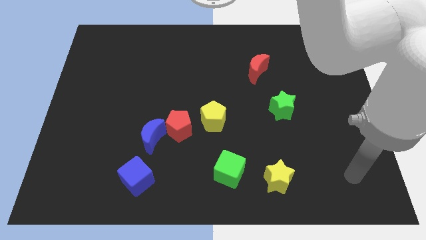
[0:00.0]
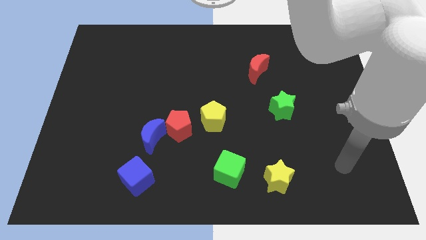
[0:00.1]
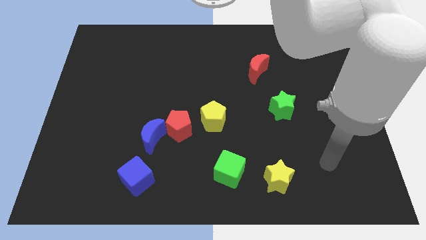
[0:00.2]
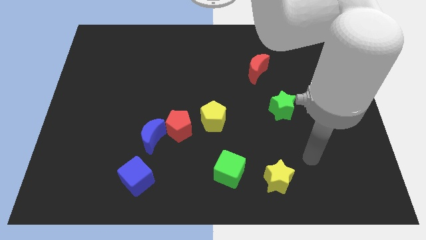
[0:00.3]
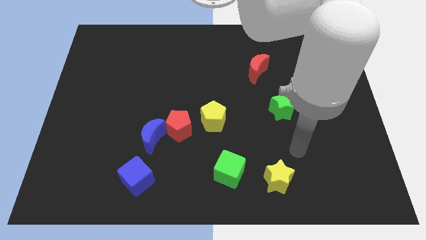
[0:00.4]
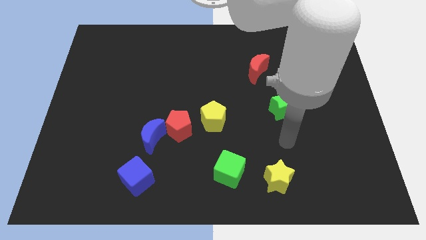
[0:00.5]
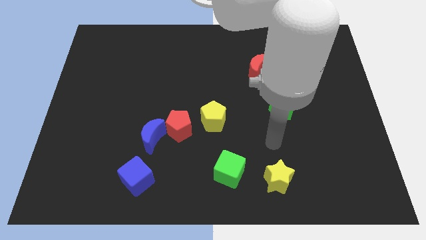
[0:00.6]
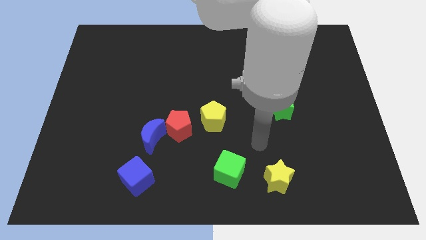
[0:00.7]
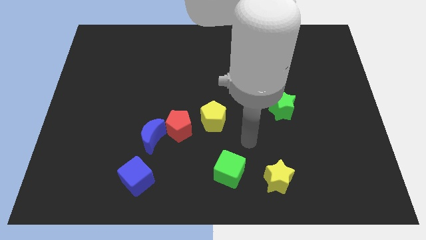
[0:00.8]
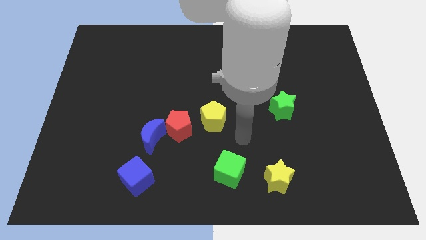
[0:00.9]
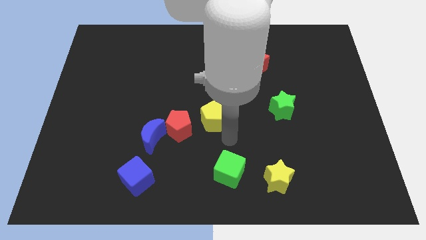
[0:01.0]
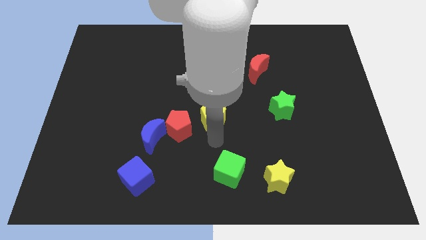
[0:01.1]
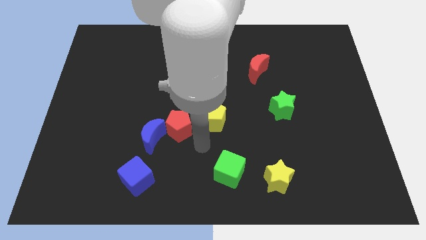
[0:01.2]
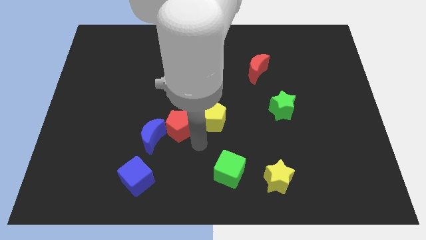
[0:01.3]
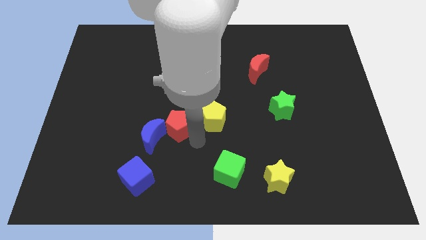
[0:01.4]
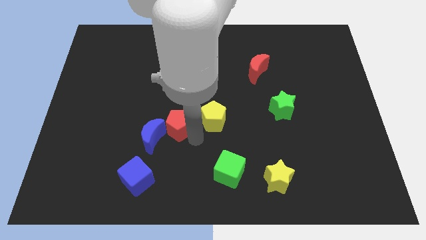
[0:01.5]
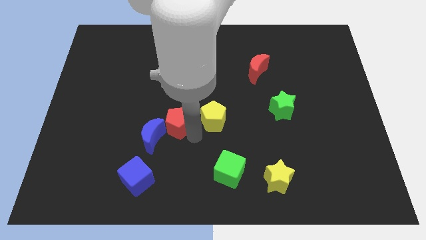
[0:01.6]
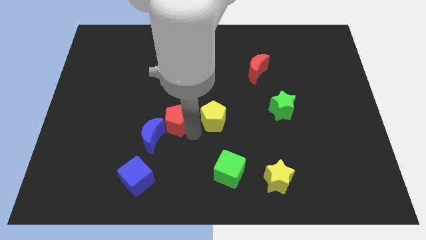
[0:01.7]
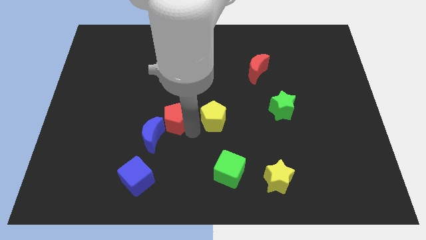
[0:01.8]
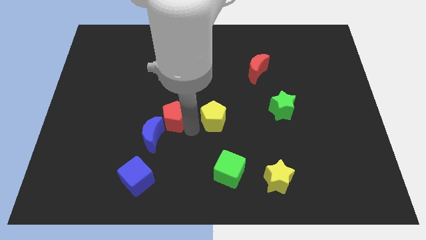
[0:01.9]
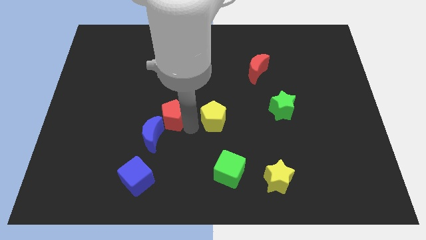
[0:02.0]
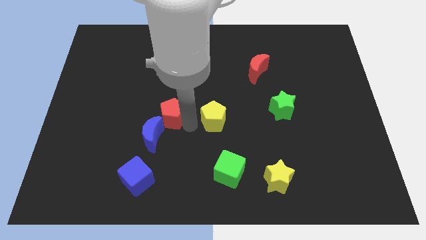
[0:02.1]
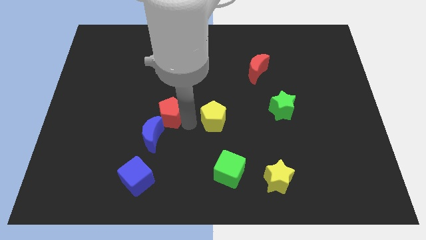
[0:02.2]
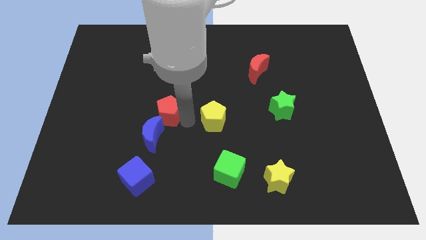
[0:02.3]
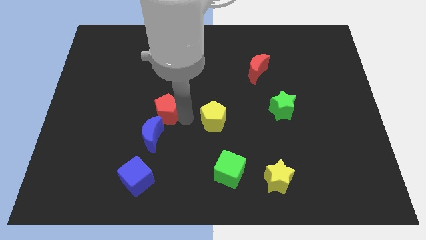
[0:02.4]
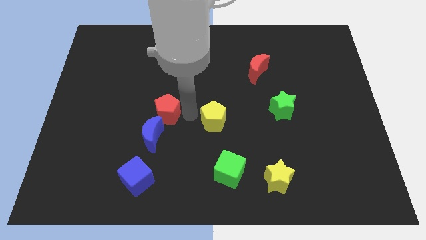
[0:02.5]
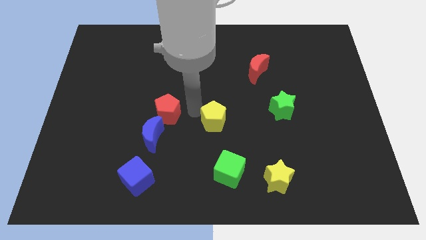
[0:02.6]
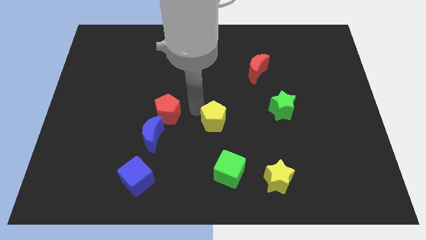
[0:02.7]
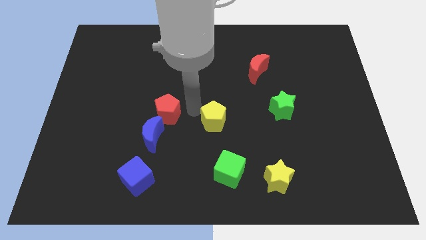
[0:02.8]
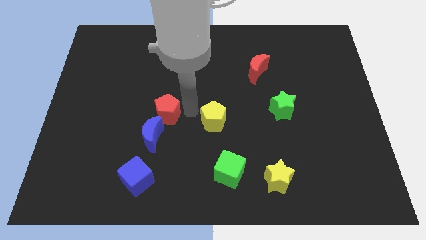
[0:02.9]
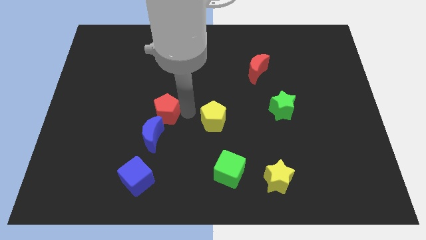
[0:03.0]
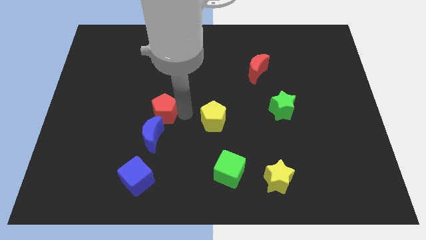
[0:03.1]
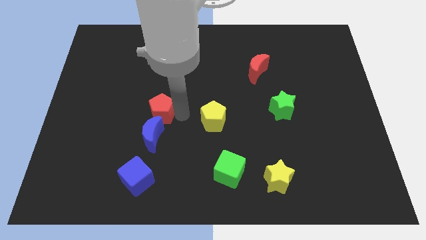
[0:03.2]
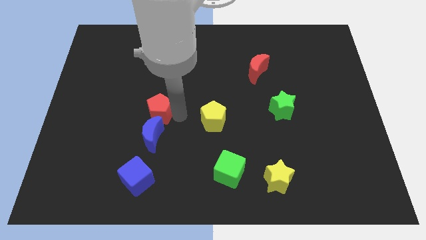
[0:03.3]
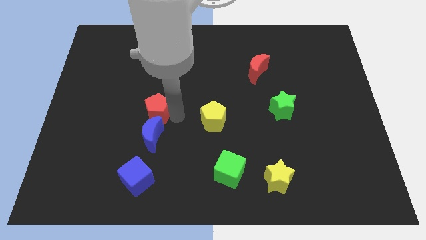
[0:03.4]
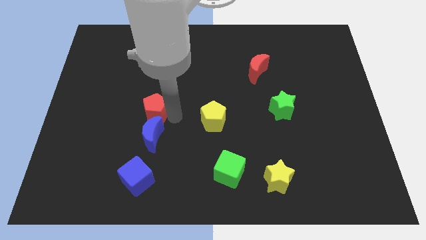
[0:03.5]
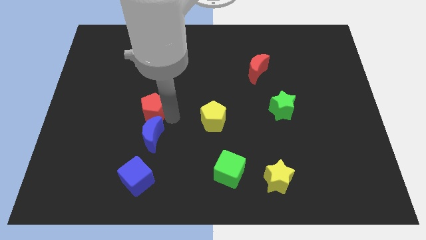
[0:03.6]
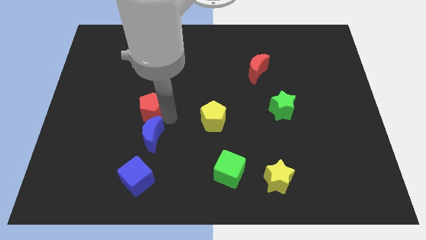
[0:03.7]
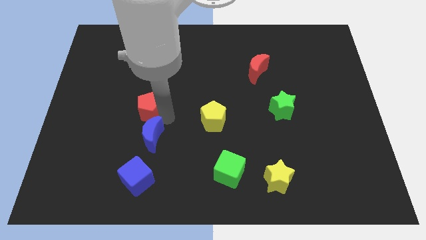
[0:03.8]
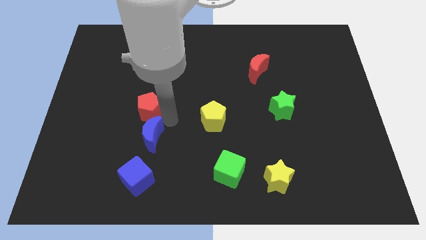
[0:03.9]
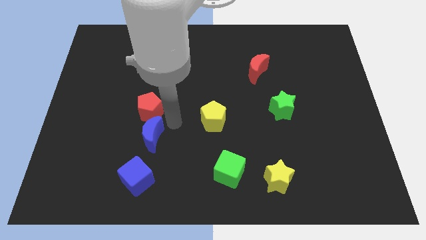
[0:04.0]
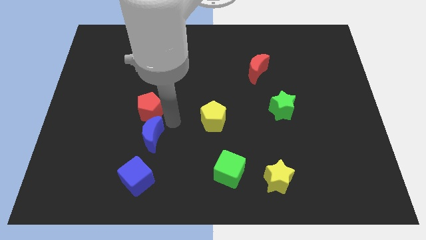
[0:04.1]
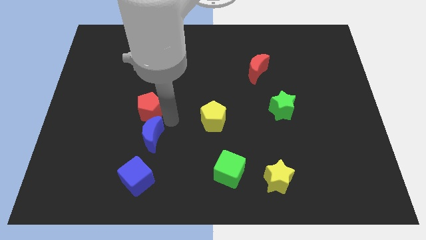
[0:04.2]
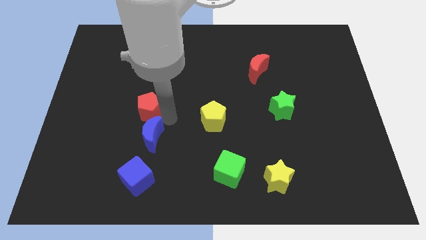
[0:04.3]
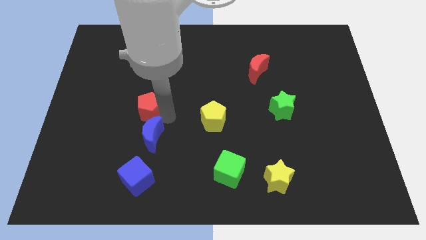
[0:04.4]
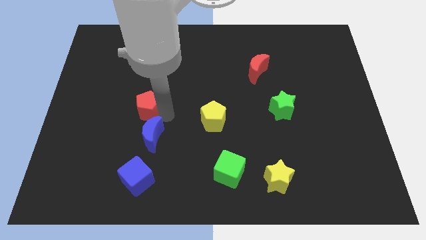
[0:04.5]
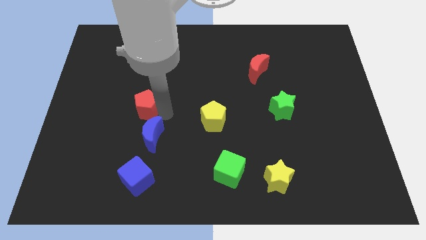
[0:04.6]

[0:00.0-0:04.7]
pull the red pentagon apart from the blue moon and yellow pentagon

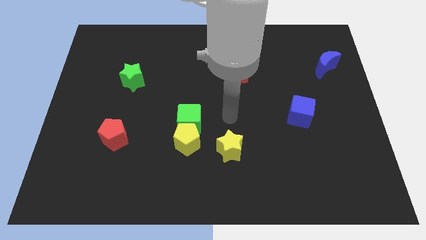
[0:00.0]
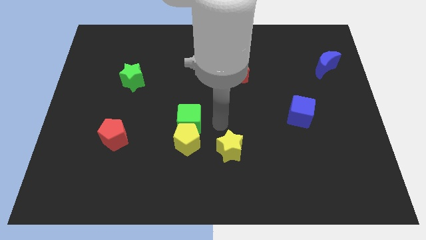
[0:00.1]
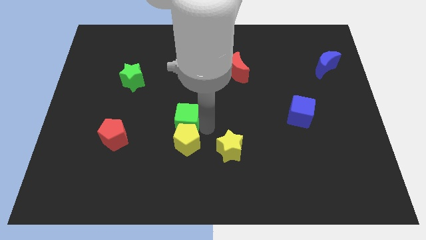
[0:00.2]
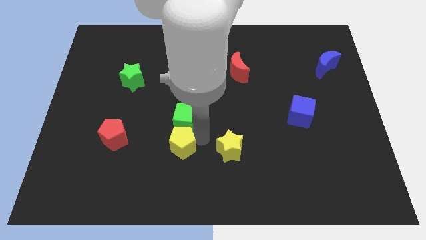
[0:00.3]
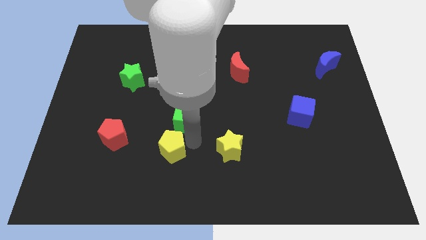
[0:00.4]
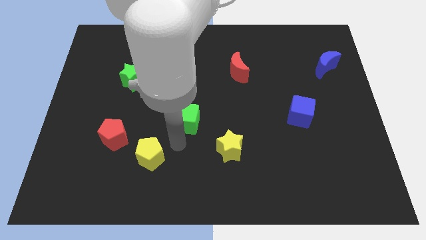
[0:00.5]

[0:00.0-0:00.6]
pull the green cube apart from the yellow pentagon

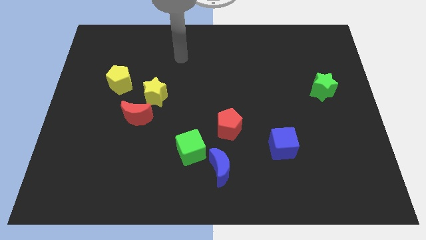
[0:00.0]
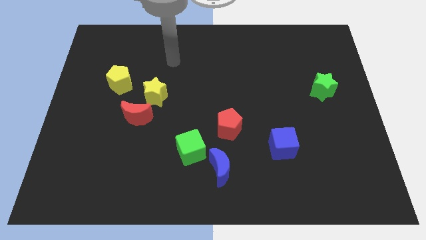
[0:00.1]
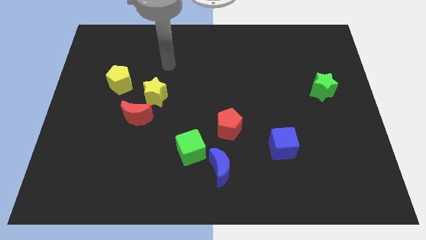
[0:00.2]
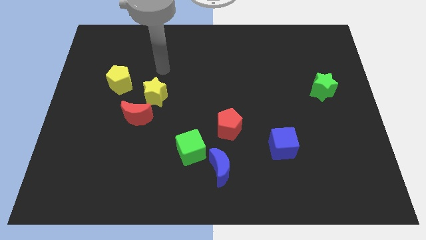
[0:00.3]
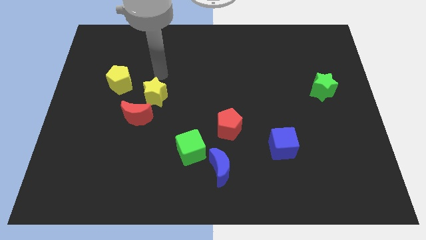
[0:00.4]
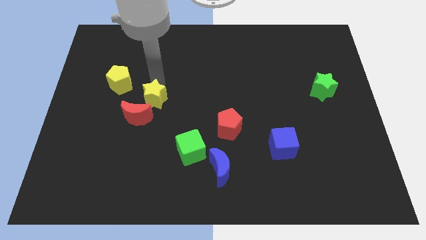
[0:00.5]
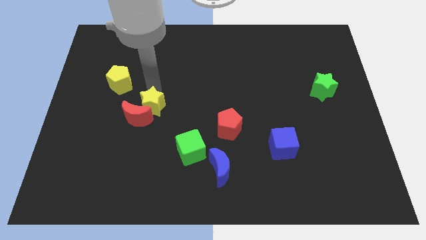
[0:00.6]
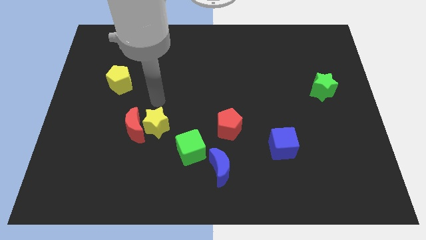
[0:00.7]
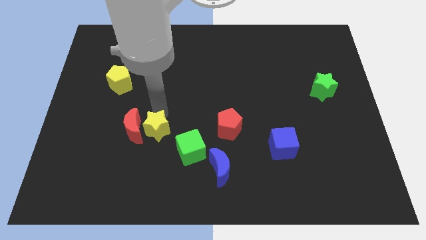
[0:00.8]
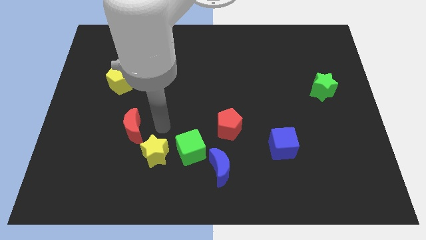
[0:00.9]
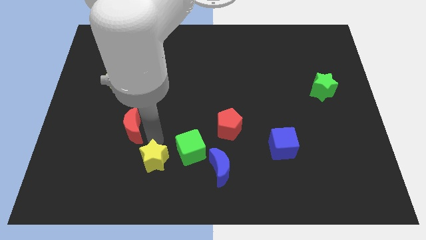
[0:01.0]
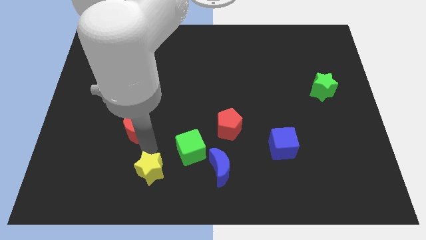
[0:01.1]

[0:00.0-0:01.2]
separate the red moon from the yellow star

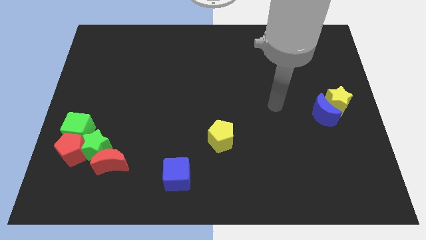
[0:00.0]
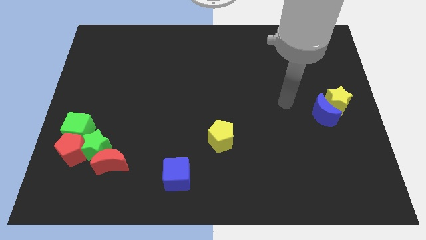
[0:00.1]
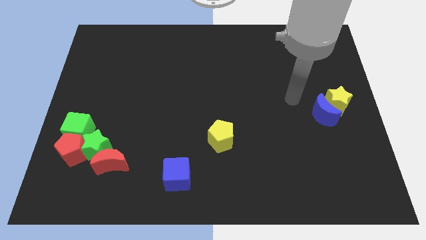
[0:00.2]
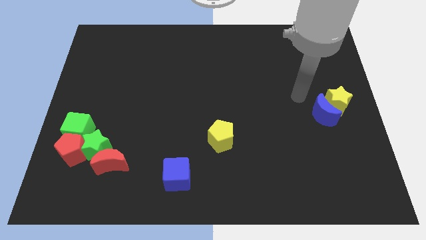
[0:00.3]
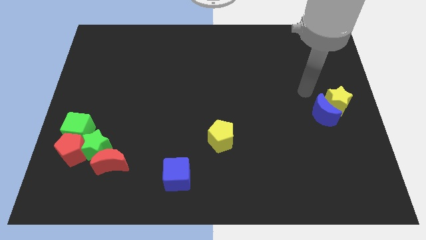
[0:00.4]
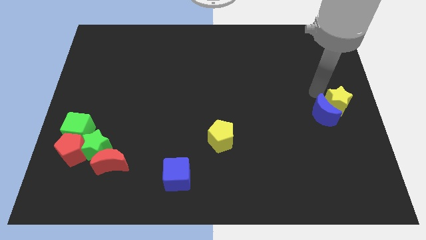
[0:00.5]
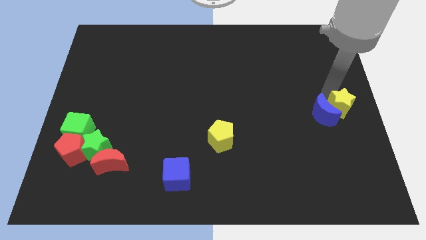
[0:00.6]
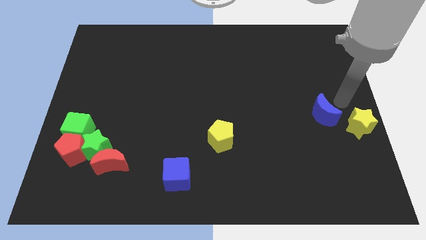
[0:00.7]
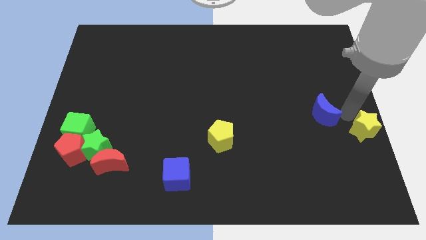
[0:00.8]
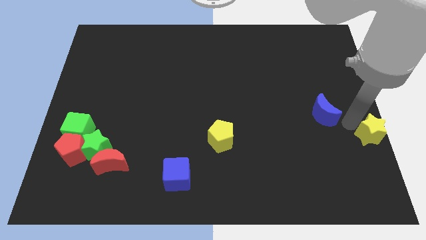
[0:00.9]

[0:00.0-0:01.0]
move the blue moon away from the yellow star

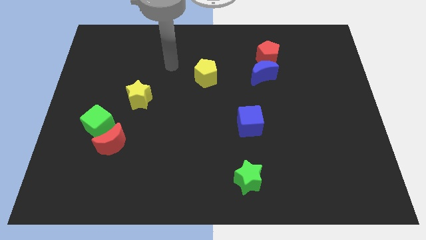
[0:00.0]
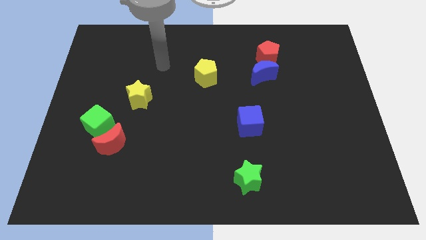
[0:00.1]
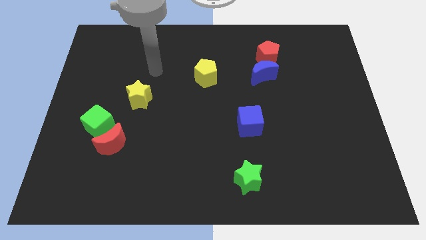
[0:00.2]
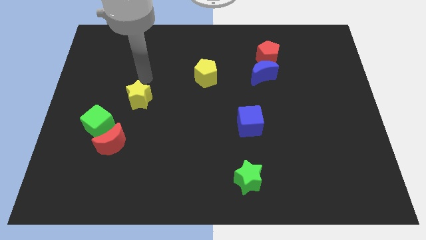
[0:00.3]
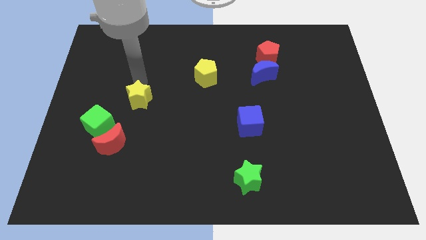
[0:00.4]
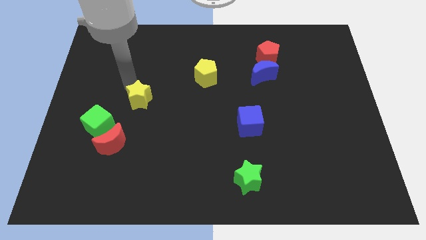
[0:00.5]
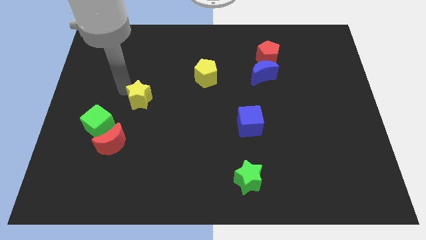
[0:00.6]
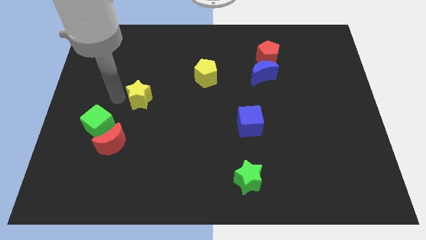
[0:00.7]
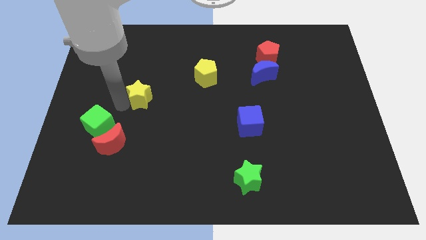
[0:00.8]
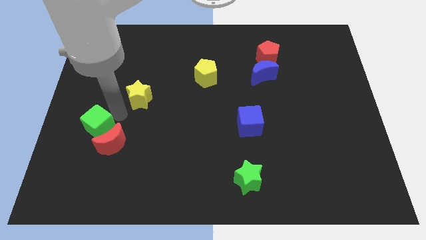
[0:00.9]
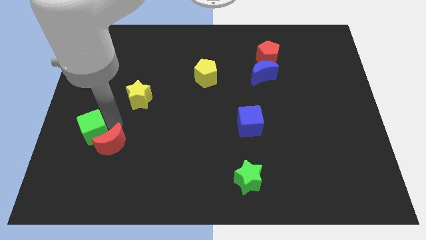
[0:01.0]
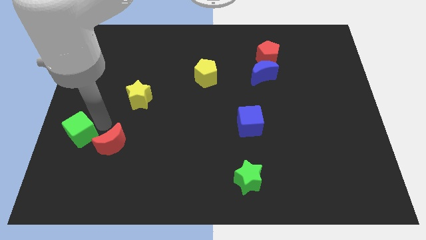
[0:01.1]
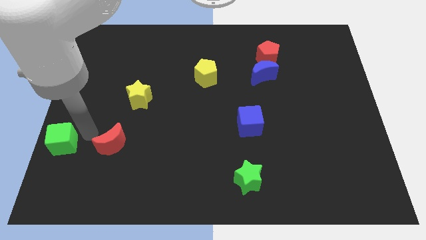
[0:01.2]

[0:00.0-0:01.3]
pull the red moon apart from the green cube

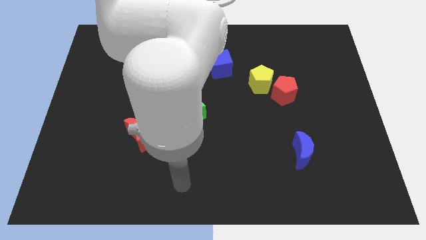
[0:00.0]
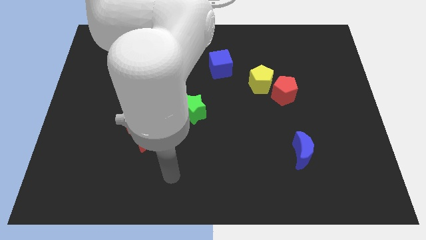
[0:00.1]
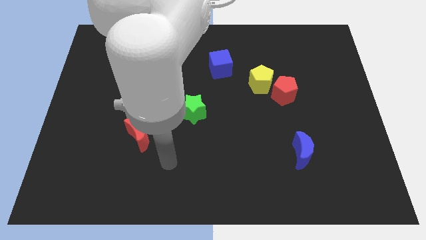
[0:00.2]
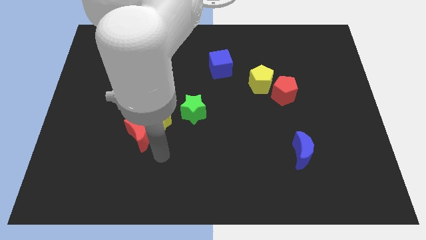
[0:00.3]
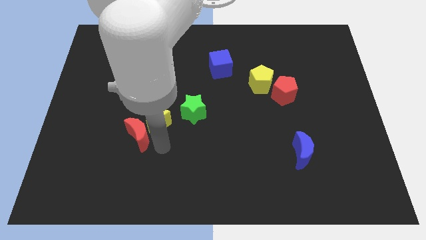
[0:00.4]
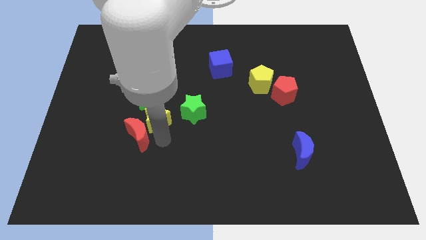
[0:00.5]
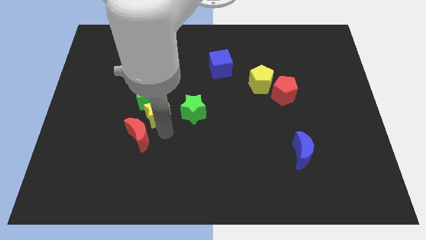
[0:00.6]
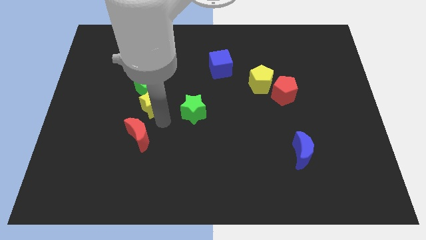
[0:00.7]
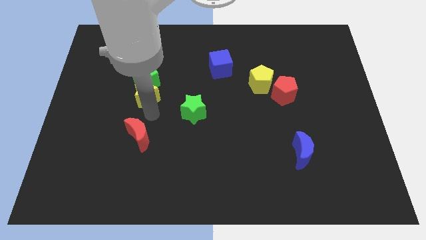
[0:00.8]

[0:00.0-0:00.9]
pull the red moon apart from the yellow star
